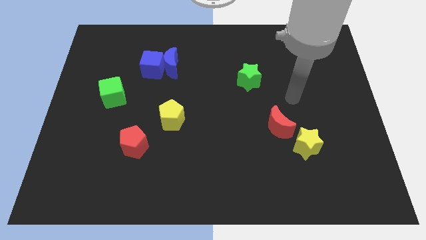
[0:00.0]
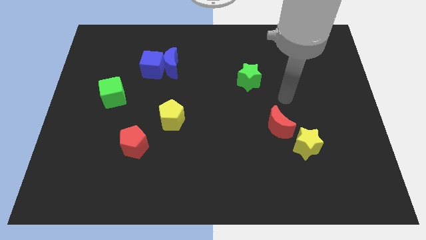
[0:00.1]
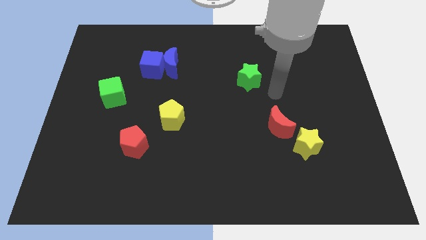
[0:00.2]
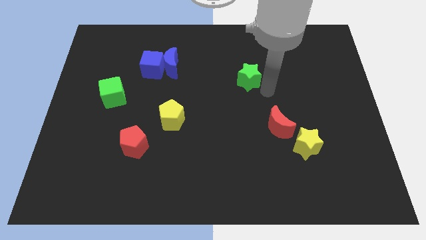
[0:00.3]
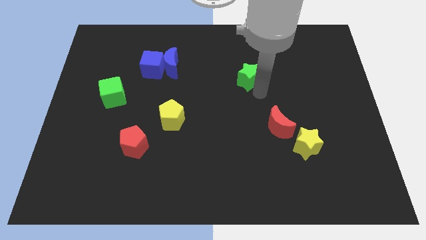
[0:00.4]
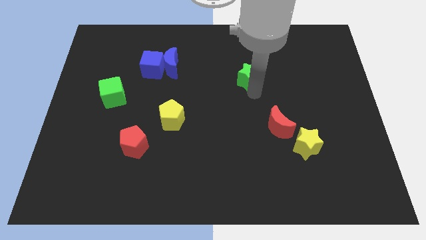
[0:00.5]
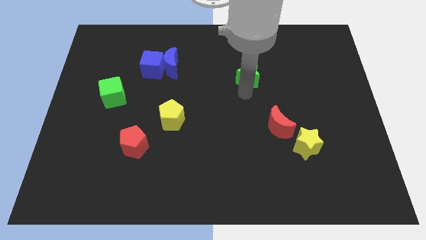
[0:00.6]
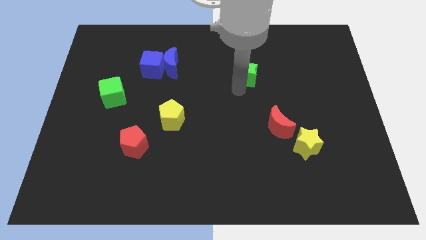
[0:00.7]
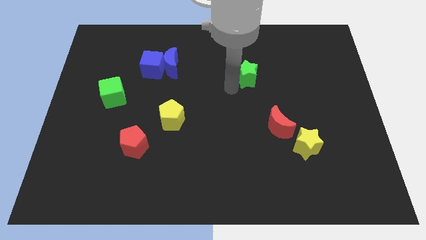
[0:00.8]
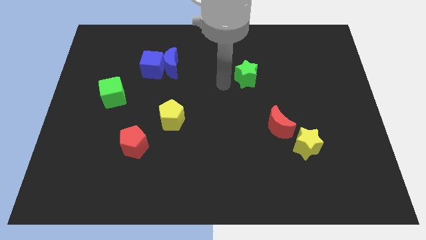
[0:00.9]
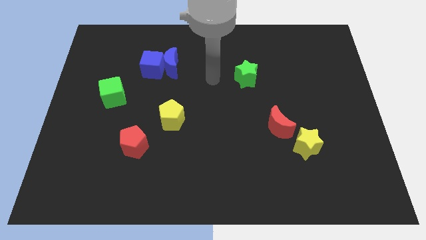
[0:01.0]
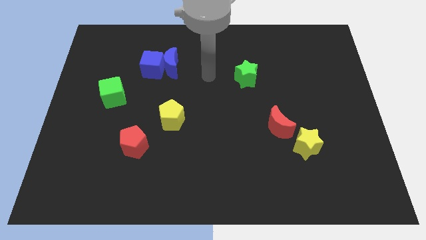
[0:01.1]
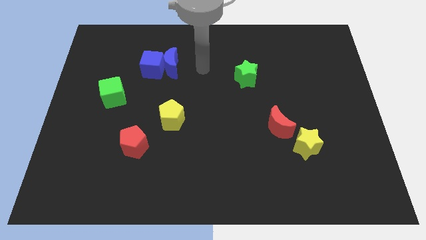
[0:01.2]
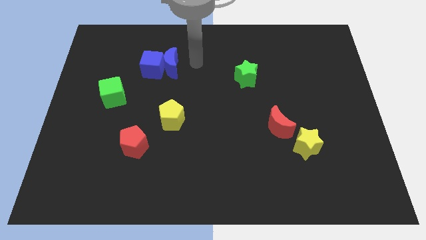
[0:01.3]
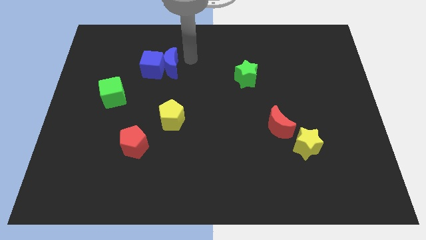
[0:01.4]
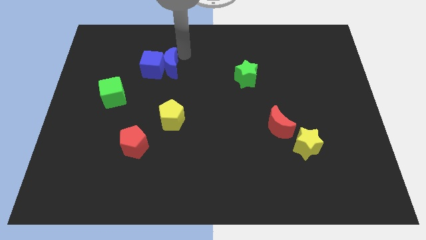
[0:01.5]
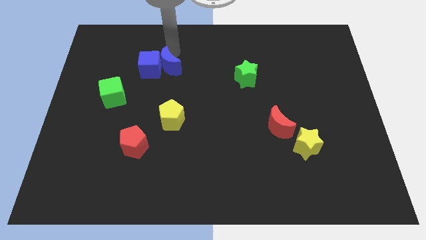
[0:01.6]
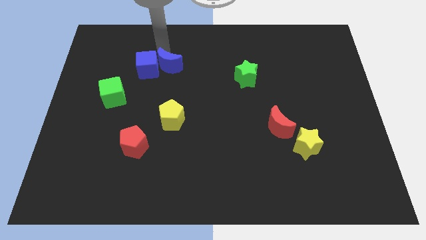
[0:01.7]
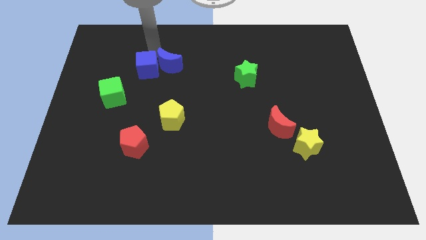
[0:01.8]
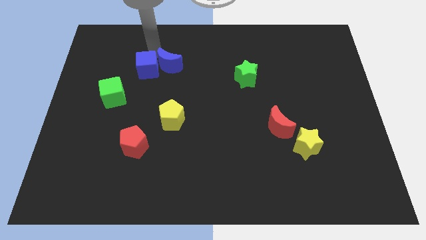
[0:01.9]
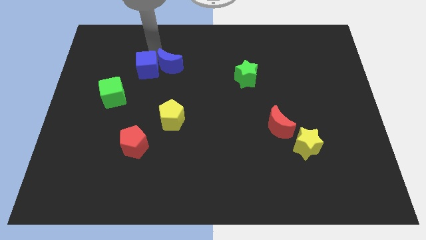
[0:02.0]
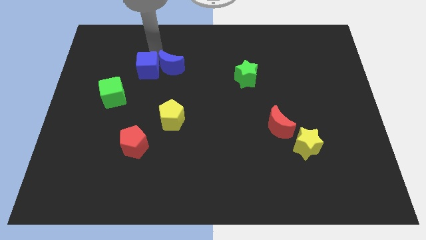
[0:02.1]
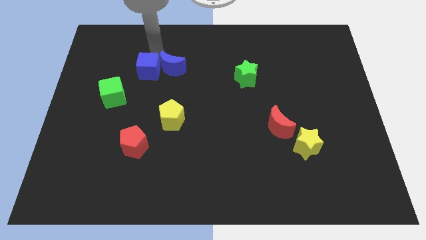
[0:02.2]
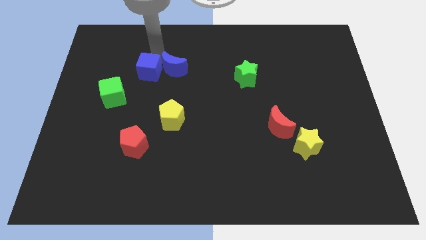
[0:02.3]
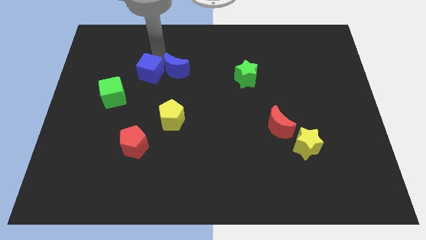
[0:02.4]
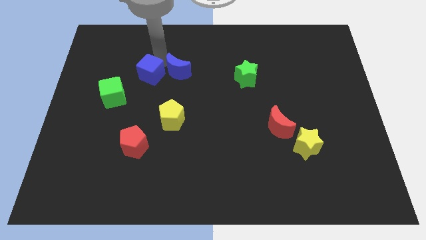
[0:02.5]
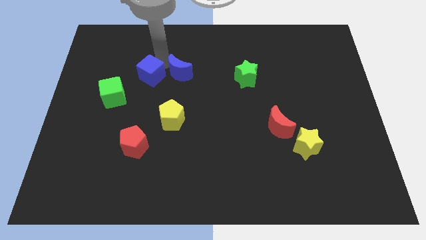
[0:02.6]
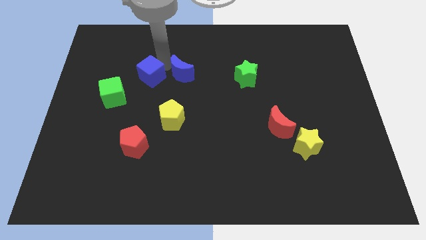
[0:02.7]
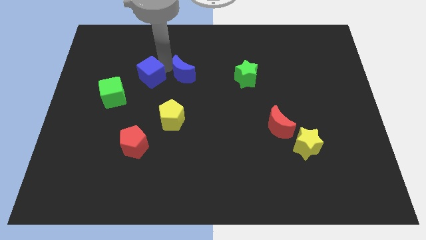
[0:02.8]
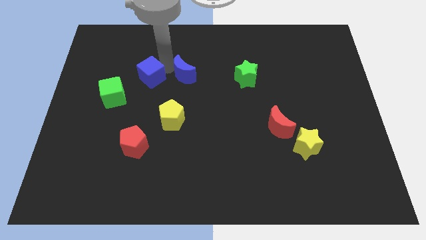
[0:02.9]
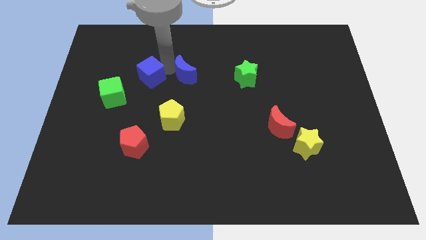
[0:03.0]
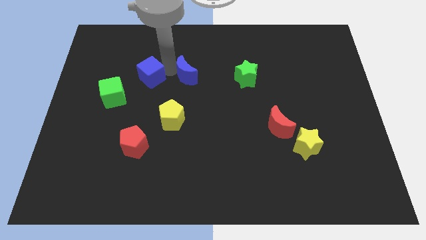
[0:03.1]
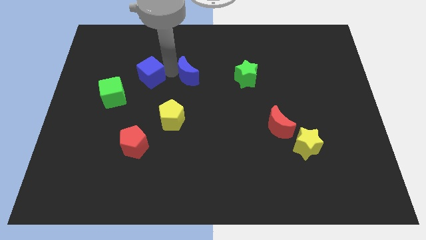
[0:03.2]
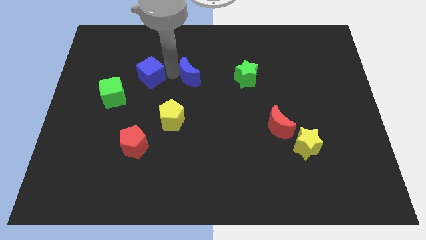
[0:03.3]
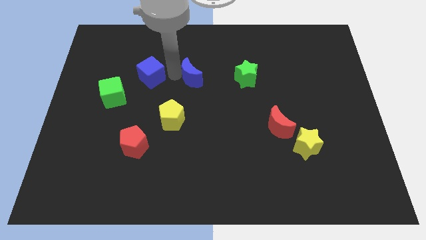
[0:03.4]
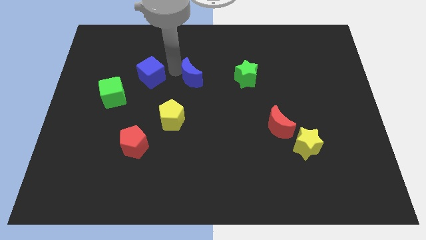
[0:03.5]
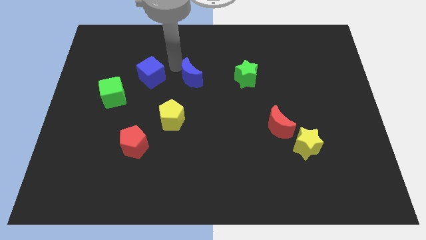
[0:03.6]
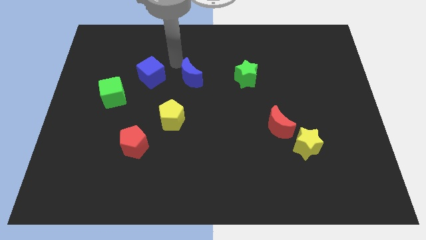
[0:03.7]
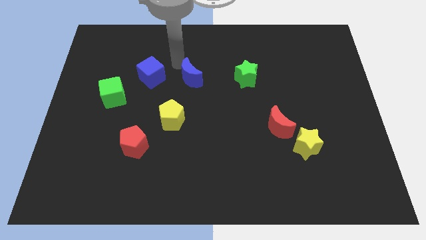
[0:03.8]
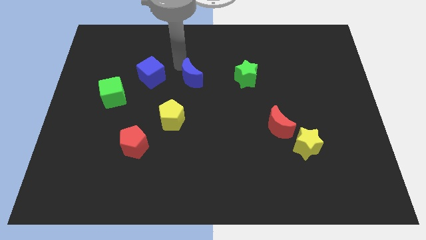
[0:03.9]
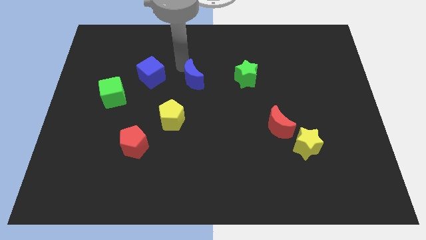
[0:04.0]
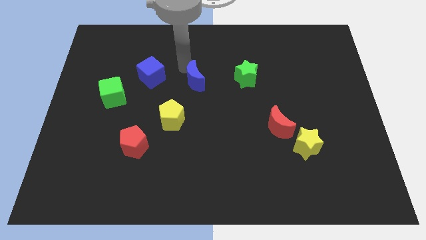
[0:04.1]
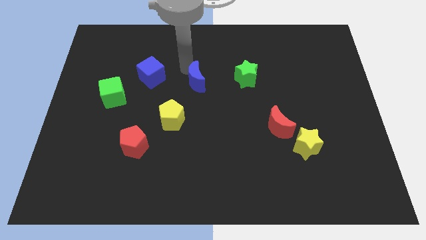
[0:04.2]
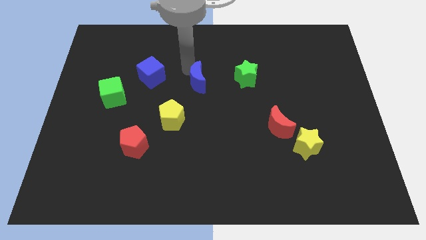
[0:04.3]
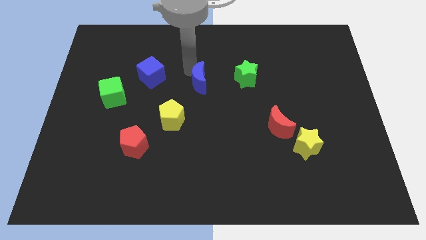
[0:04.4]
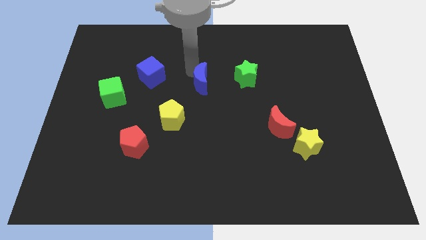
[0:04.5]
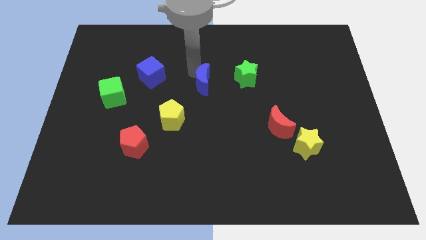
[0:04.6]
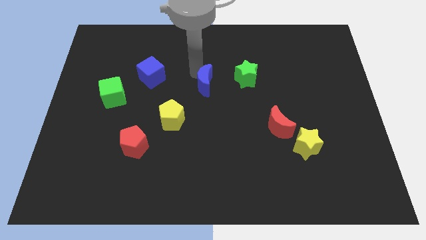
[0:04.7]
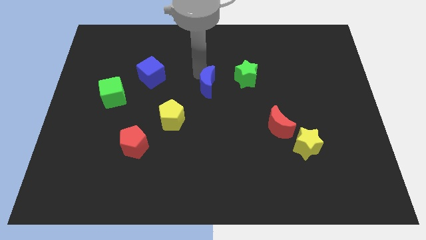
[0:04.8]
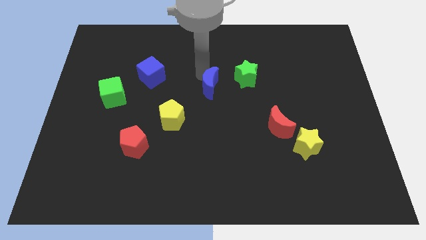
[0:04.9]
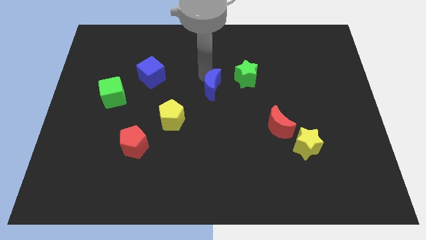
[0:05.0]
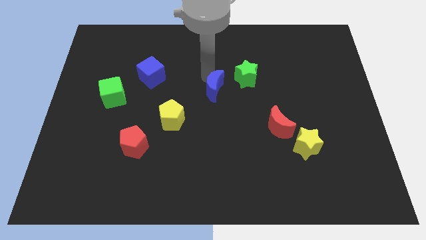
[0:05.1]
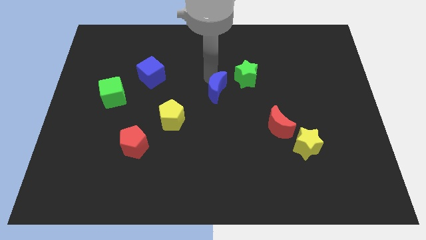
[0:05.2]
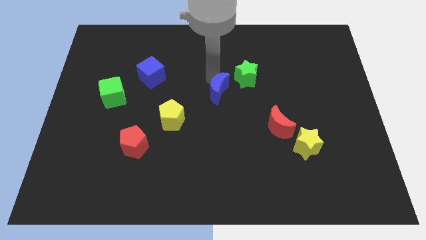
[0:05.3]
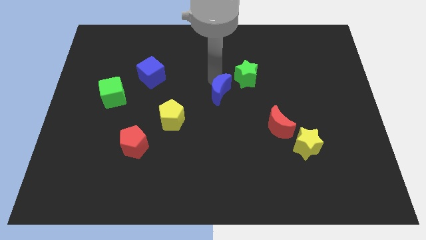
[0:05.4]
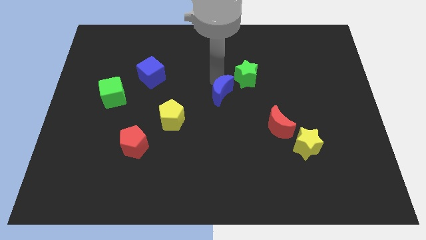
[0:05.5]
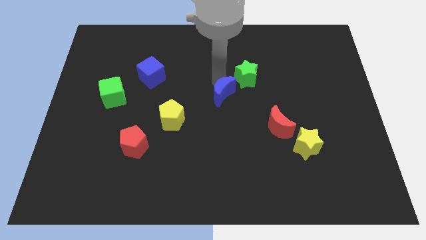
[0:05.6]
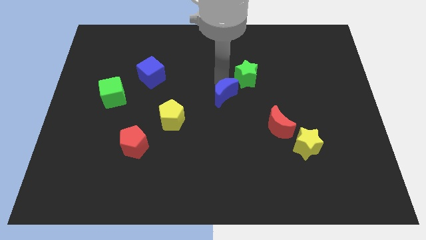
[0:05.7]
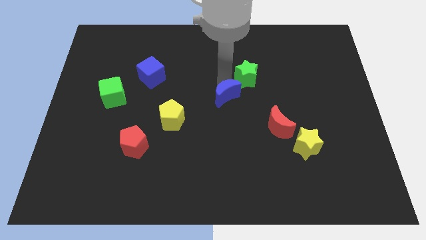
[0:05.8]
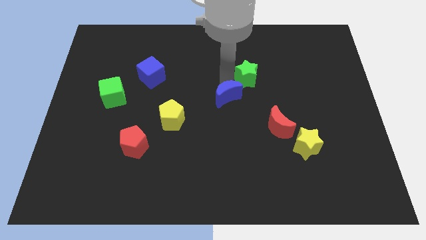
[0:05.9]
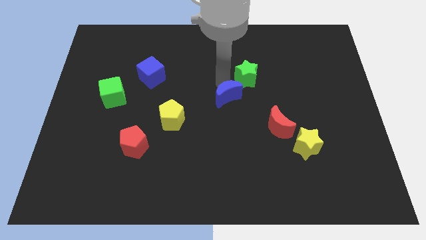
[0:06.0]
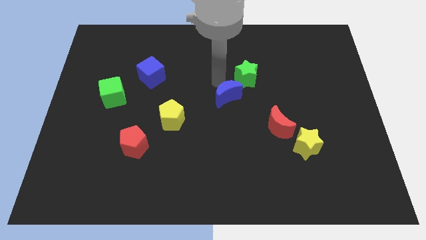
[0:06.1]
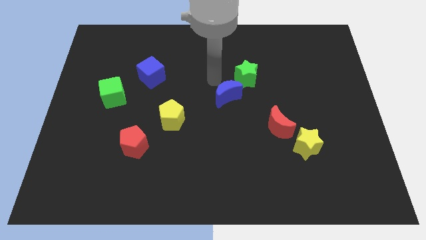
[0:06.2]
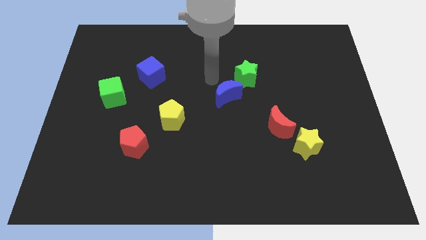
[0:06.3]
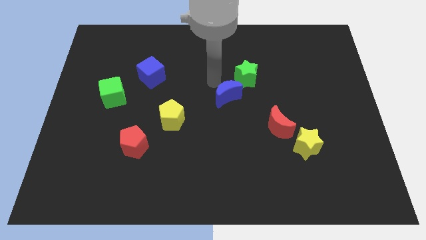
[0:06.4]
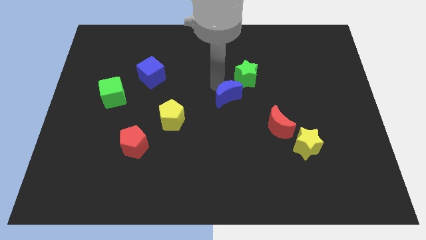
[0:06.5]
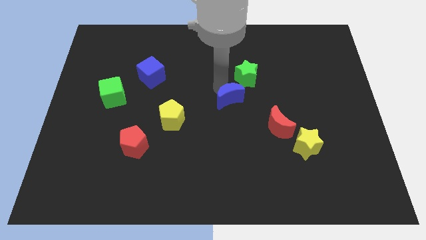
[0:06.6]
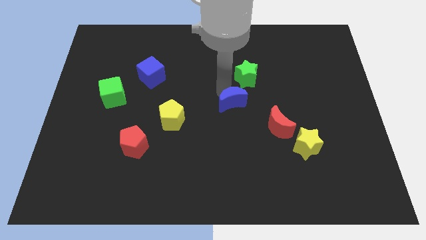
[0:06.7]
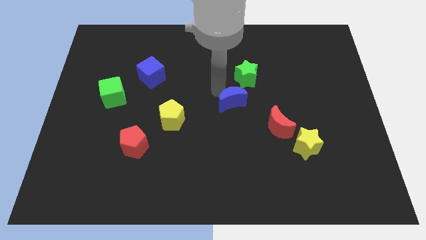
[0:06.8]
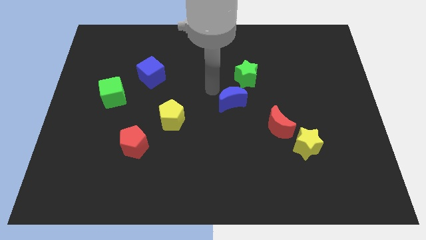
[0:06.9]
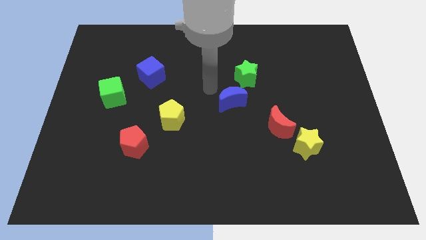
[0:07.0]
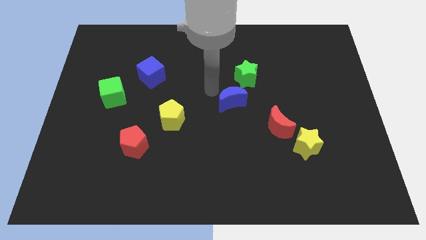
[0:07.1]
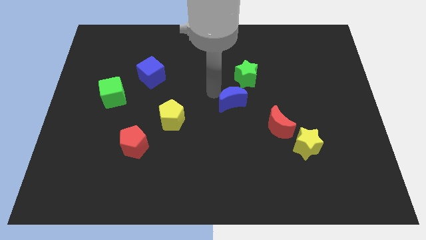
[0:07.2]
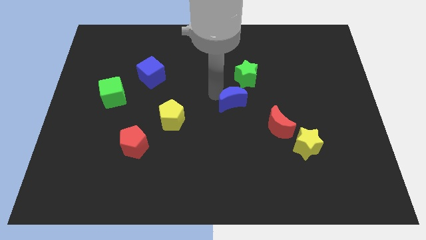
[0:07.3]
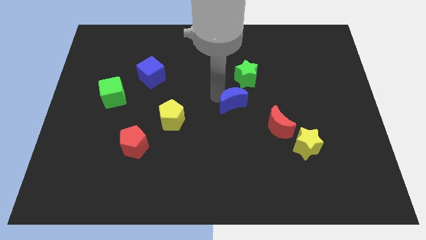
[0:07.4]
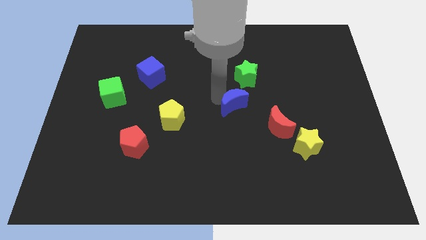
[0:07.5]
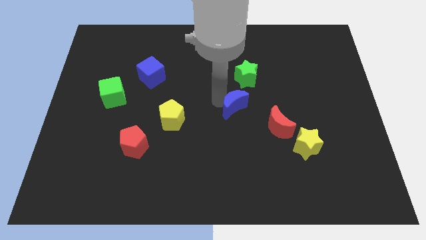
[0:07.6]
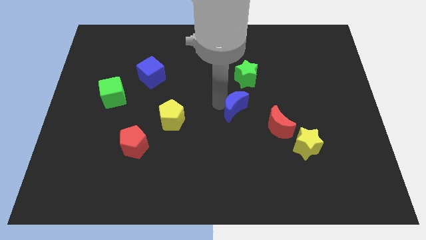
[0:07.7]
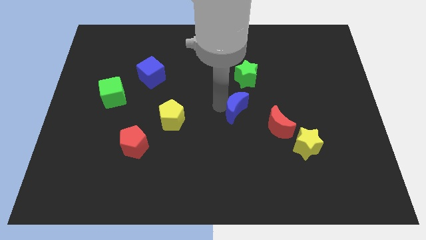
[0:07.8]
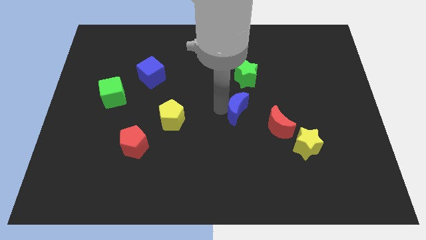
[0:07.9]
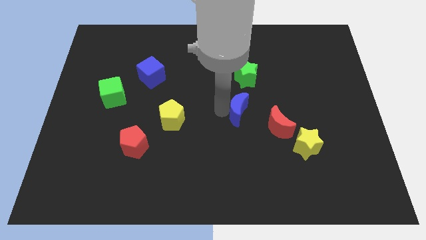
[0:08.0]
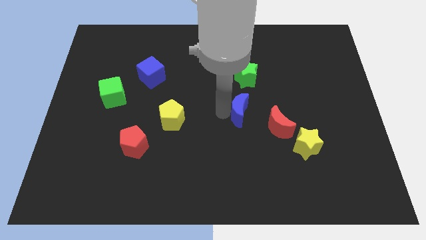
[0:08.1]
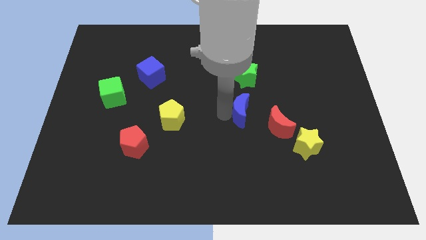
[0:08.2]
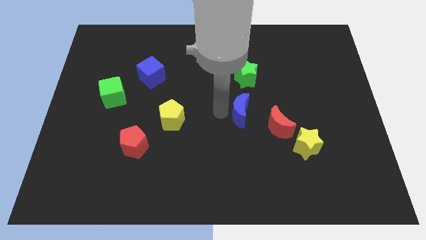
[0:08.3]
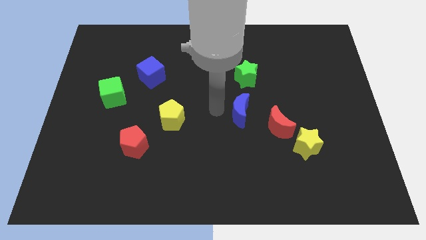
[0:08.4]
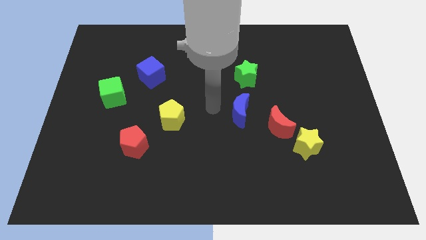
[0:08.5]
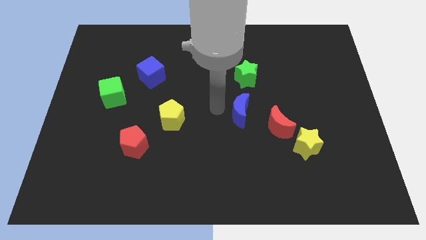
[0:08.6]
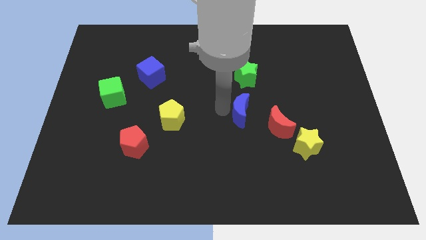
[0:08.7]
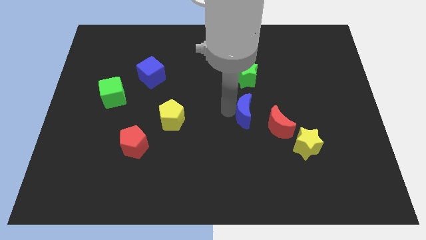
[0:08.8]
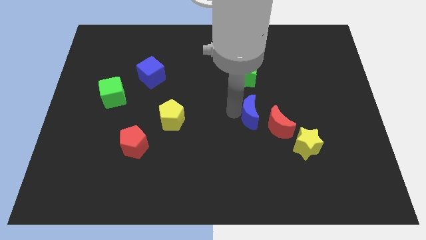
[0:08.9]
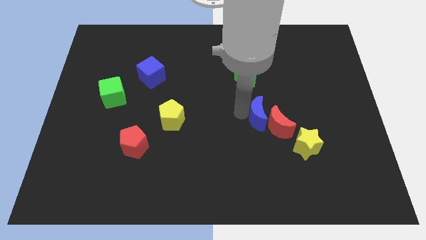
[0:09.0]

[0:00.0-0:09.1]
put the blue moon close to the red moon
